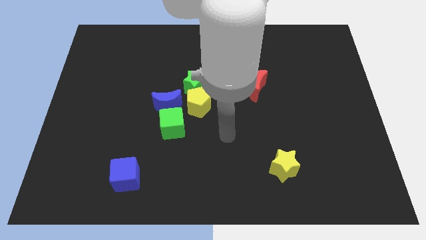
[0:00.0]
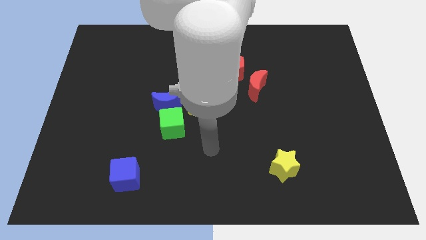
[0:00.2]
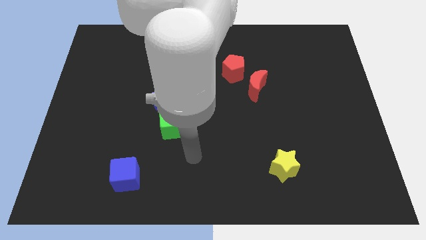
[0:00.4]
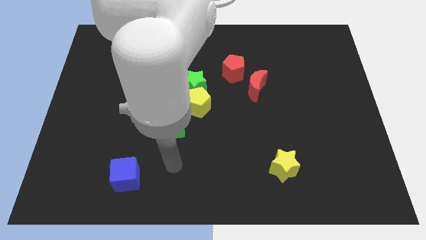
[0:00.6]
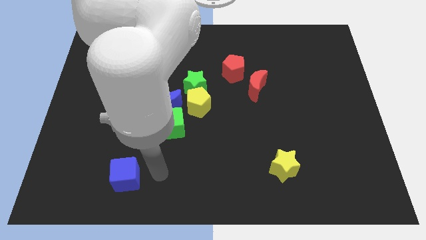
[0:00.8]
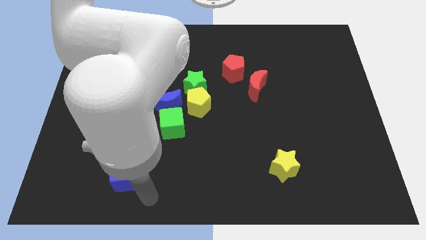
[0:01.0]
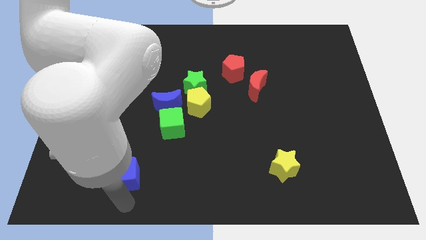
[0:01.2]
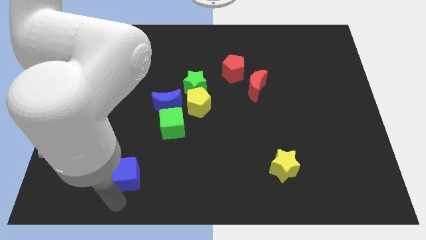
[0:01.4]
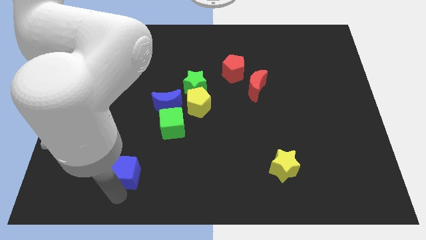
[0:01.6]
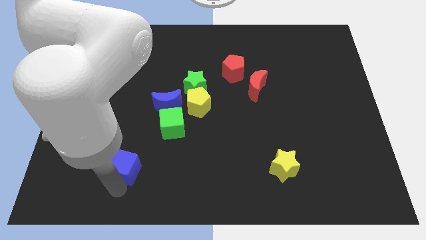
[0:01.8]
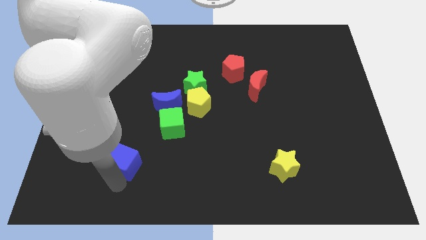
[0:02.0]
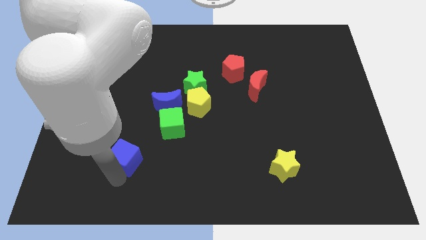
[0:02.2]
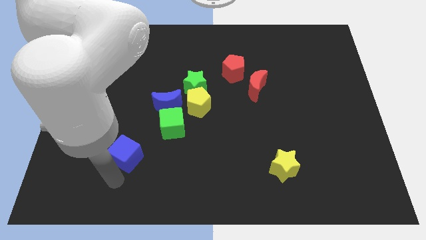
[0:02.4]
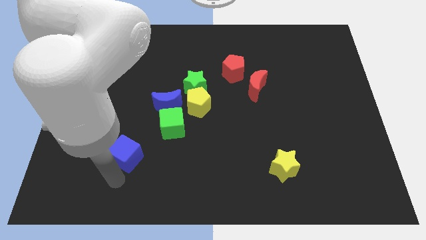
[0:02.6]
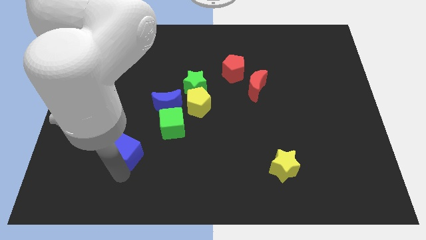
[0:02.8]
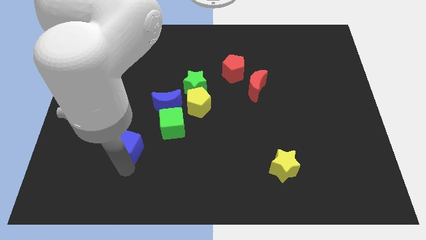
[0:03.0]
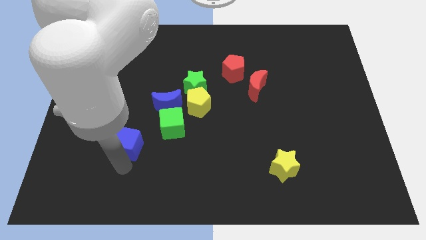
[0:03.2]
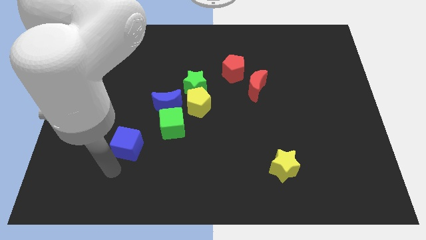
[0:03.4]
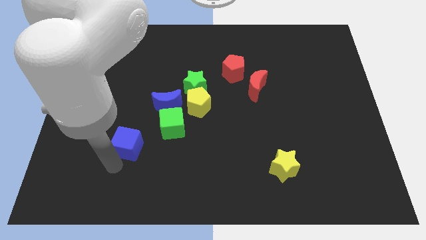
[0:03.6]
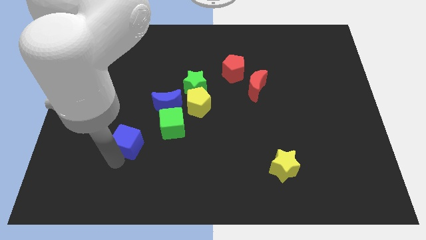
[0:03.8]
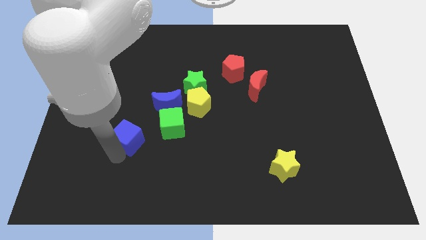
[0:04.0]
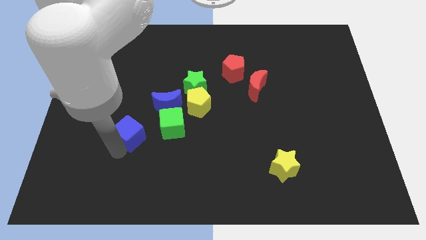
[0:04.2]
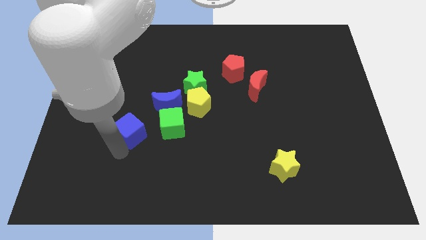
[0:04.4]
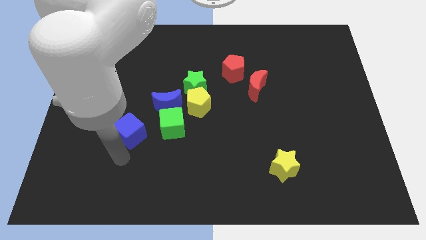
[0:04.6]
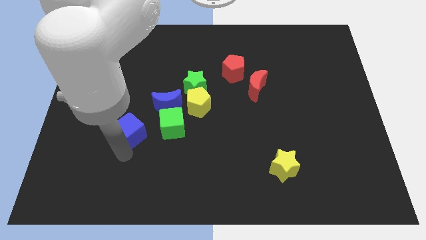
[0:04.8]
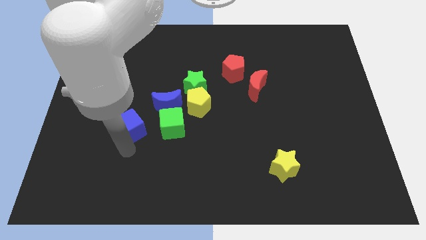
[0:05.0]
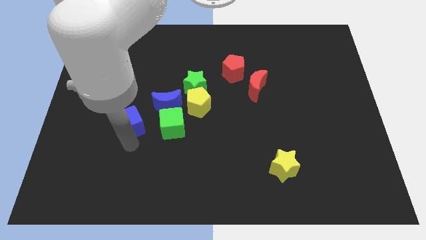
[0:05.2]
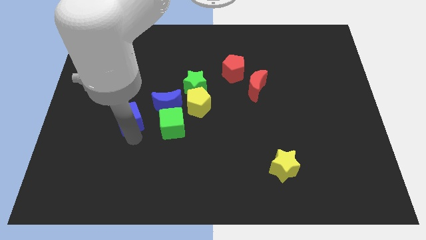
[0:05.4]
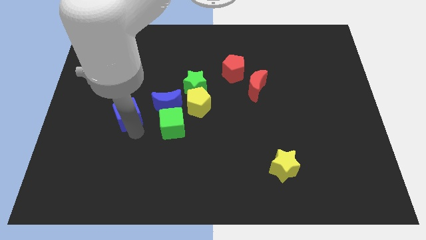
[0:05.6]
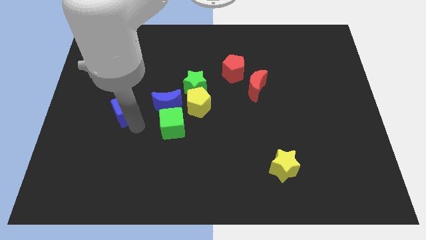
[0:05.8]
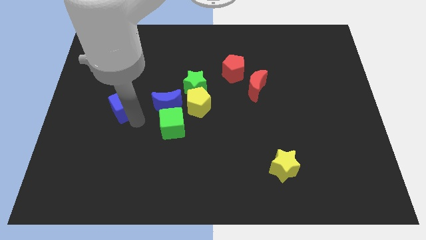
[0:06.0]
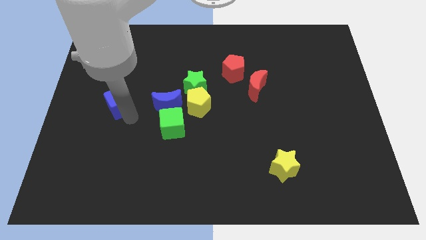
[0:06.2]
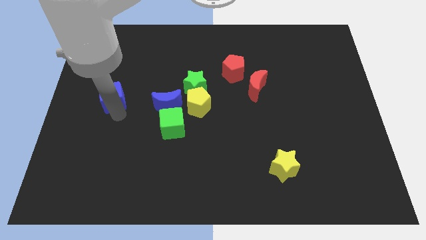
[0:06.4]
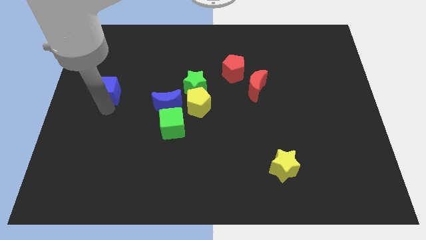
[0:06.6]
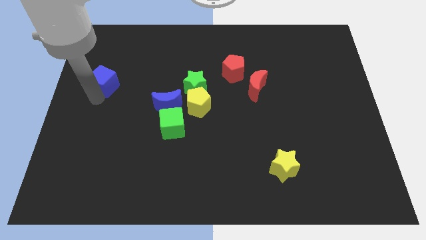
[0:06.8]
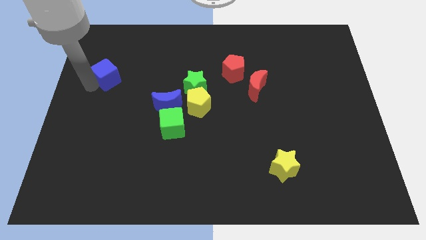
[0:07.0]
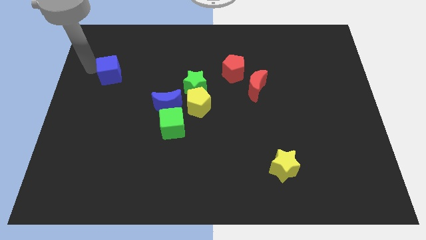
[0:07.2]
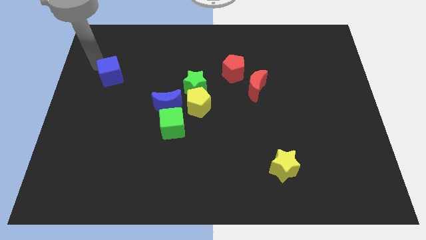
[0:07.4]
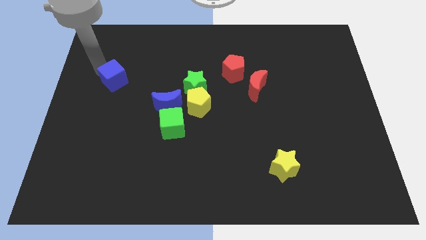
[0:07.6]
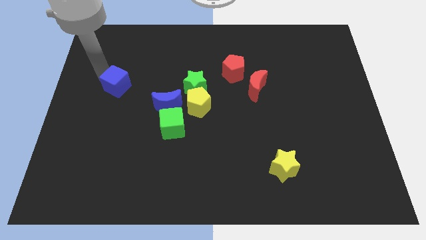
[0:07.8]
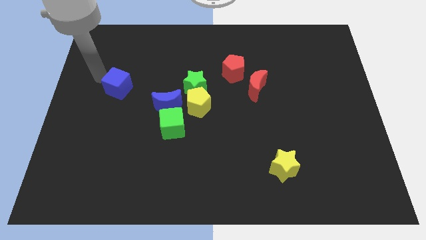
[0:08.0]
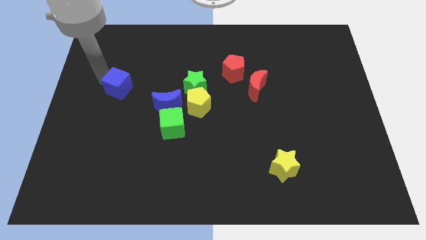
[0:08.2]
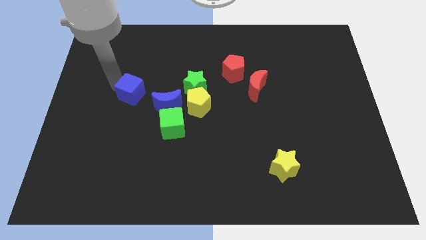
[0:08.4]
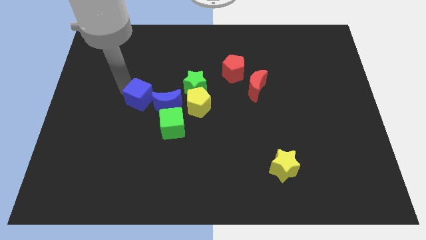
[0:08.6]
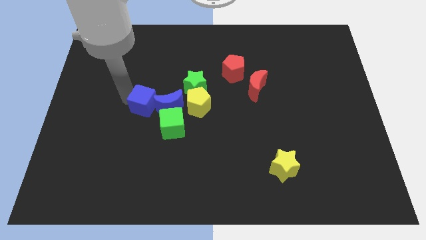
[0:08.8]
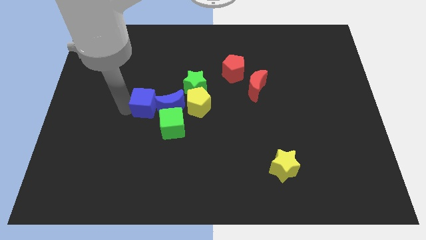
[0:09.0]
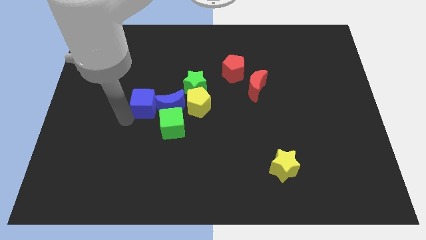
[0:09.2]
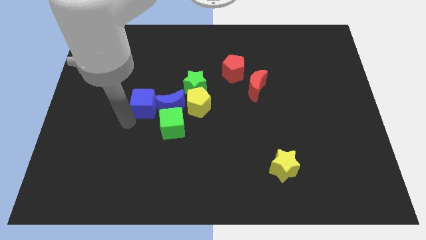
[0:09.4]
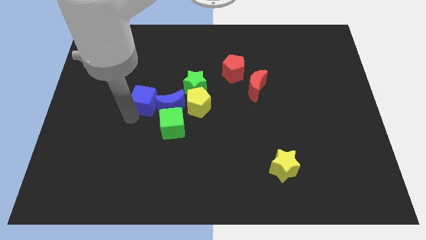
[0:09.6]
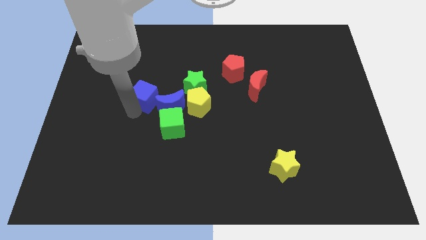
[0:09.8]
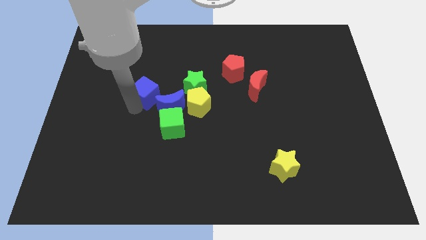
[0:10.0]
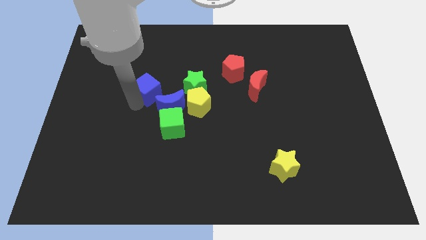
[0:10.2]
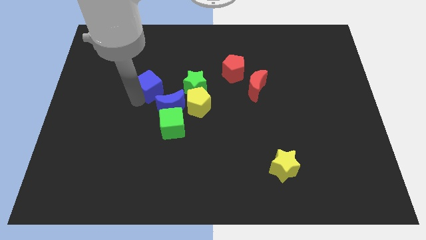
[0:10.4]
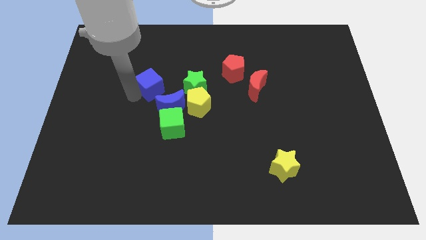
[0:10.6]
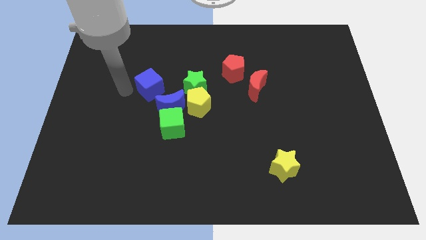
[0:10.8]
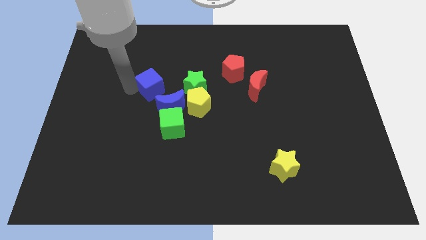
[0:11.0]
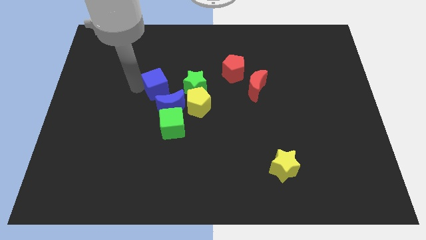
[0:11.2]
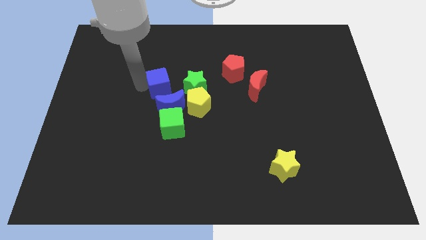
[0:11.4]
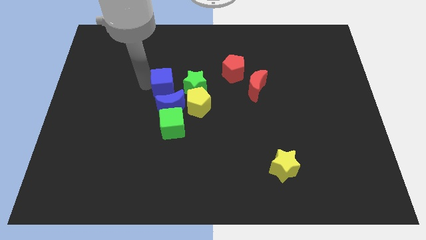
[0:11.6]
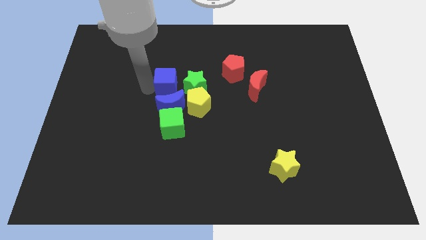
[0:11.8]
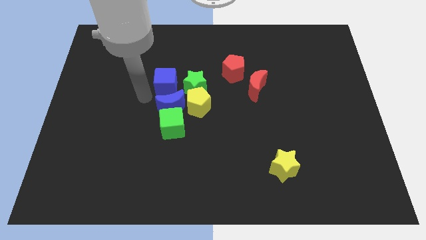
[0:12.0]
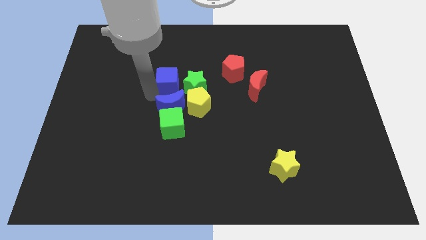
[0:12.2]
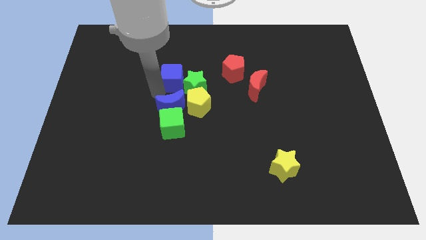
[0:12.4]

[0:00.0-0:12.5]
slide the blue cube just left of the red pentagon

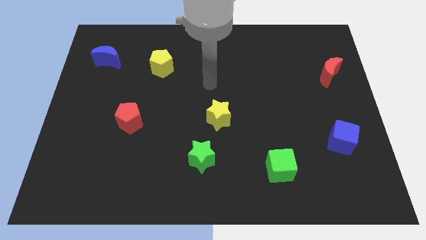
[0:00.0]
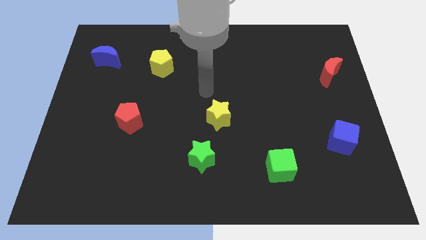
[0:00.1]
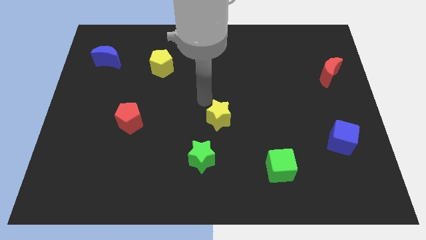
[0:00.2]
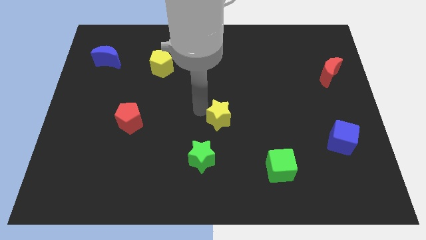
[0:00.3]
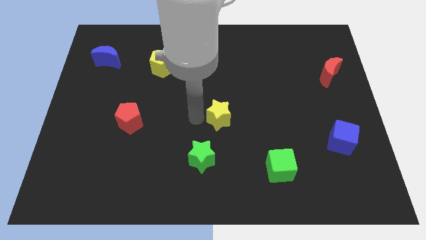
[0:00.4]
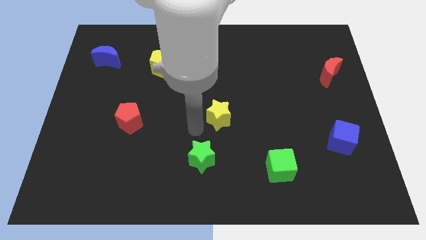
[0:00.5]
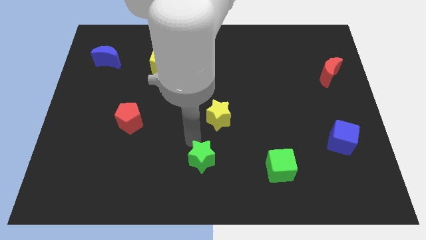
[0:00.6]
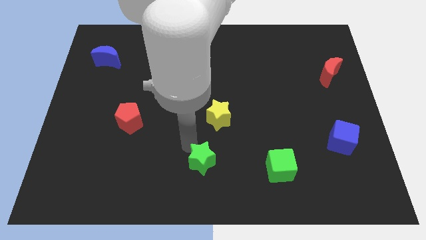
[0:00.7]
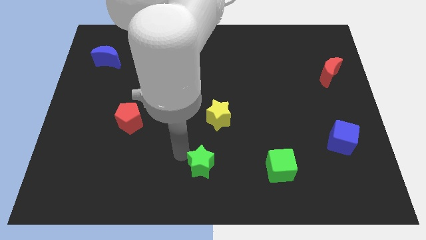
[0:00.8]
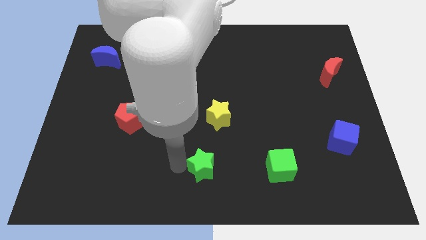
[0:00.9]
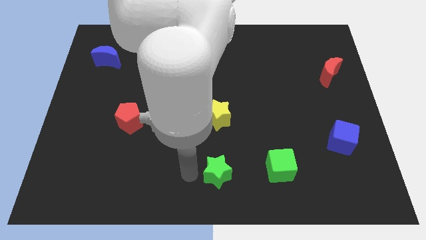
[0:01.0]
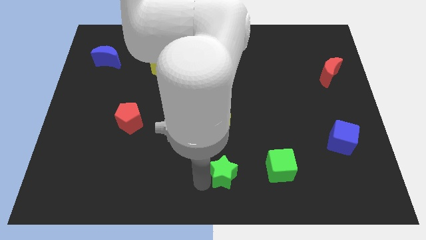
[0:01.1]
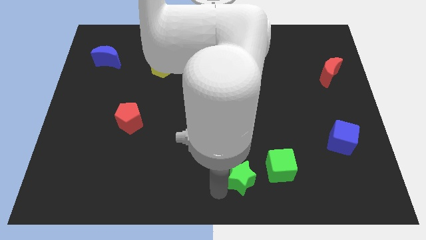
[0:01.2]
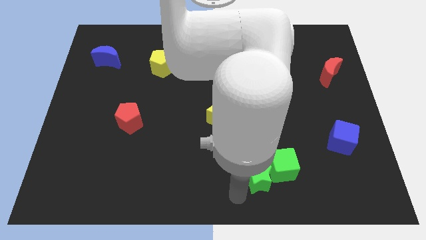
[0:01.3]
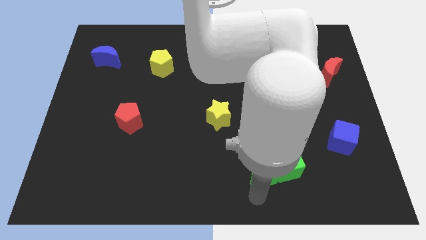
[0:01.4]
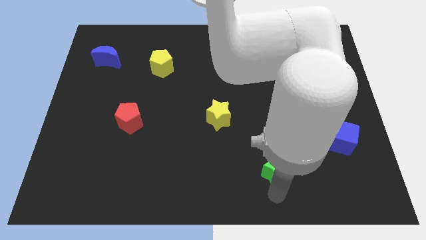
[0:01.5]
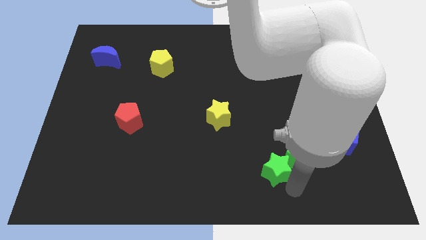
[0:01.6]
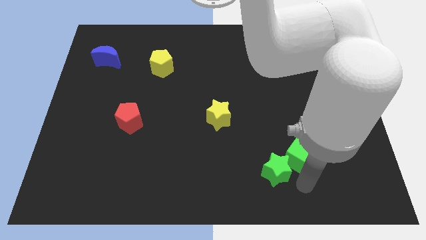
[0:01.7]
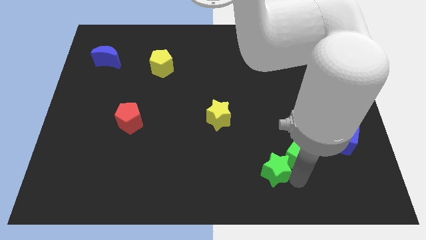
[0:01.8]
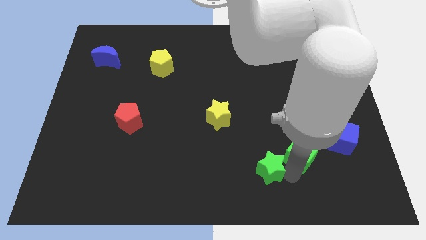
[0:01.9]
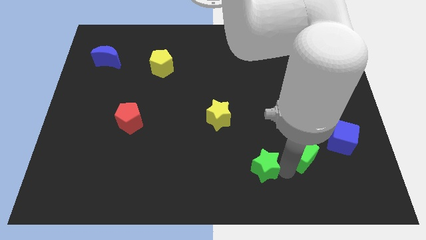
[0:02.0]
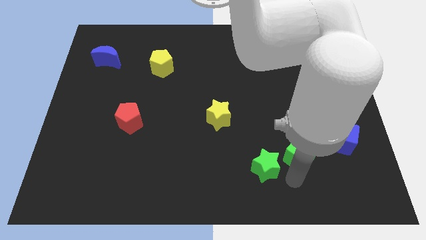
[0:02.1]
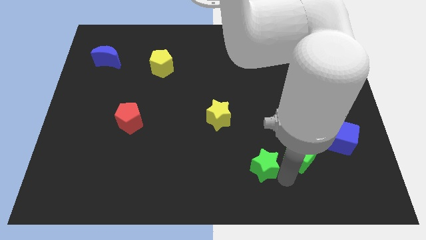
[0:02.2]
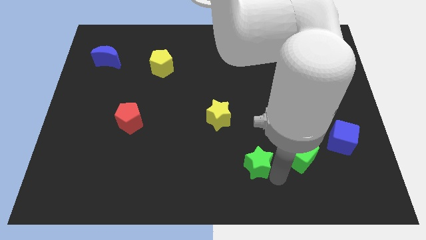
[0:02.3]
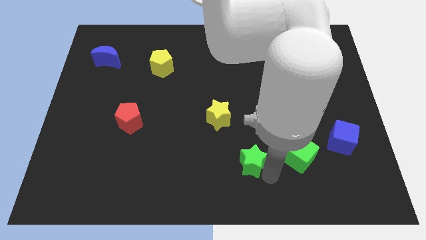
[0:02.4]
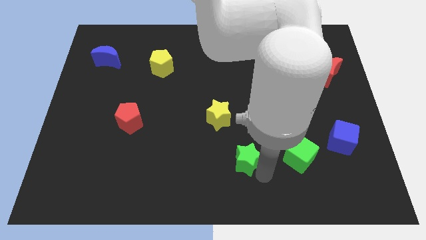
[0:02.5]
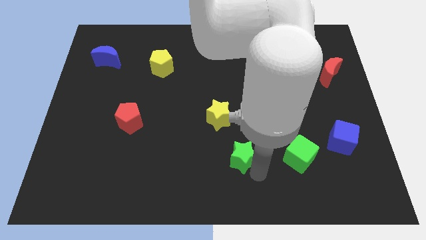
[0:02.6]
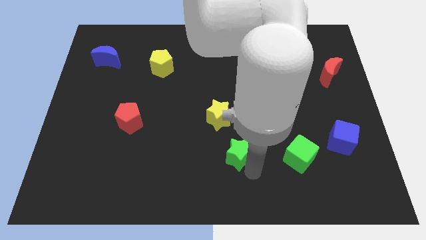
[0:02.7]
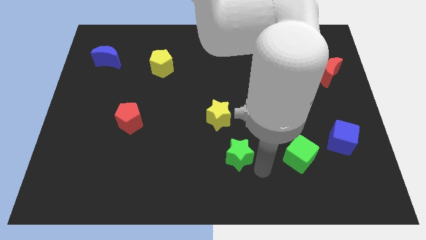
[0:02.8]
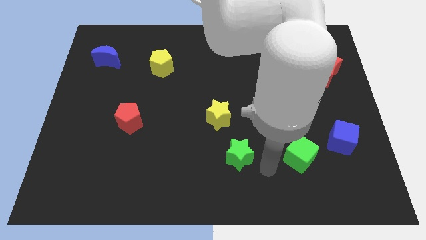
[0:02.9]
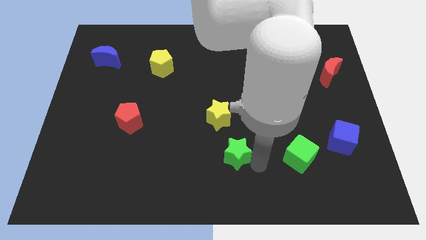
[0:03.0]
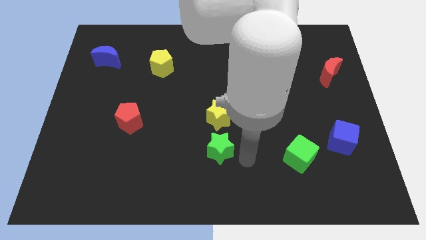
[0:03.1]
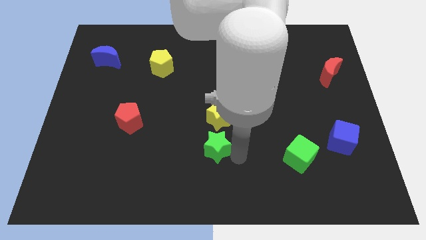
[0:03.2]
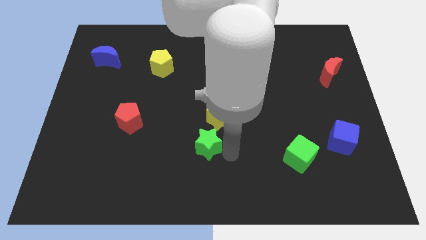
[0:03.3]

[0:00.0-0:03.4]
push the green star diagonally down and to the left of the yellow star
